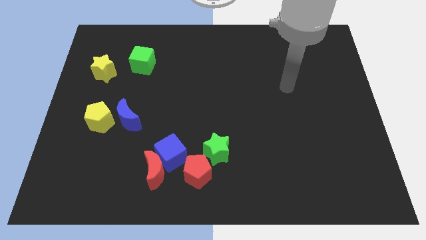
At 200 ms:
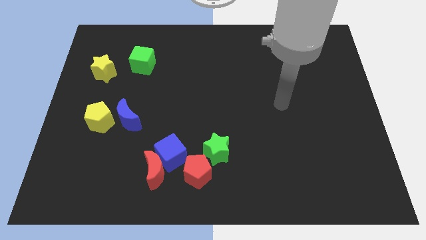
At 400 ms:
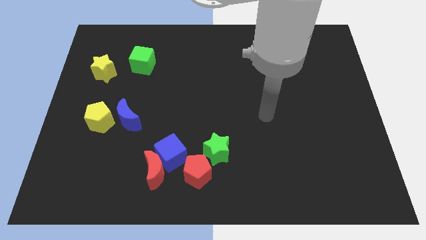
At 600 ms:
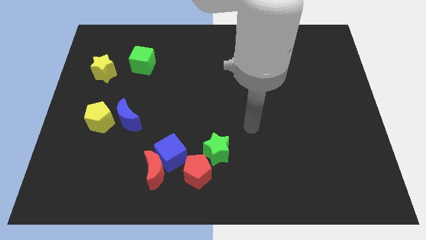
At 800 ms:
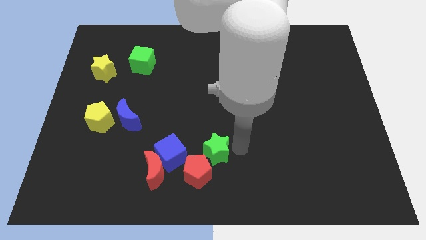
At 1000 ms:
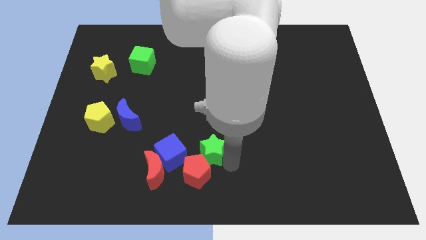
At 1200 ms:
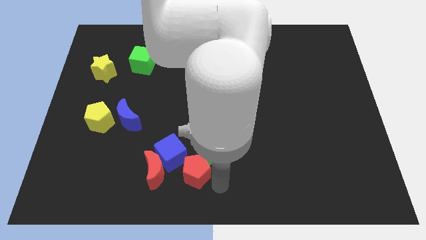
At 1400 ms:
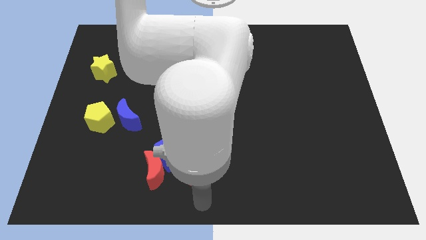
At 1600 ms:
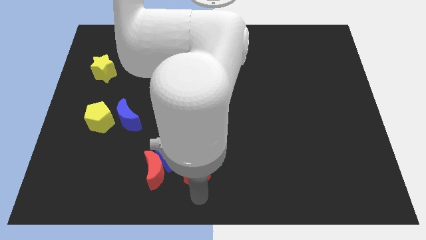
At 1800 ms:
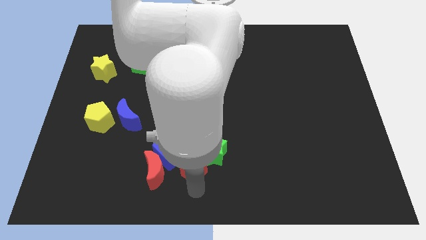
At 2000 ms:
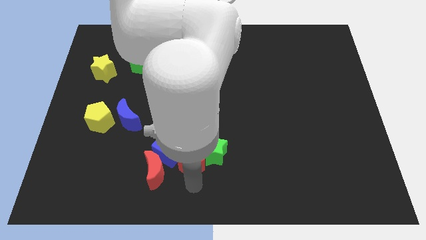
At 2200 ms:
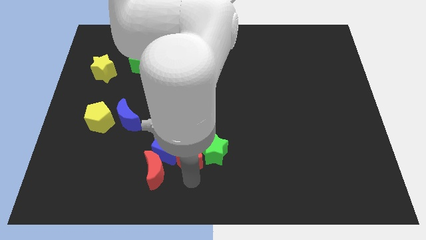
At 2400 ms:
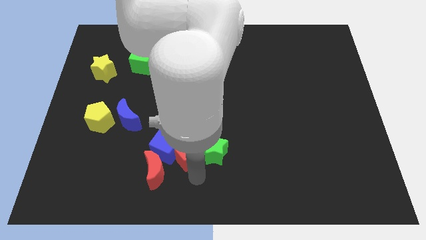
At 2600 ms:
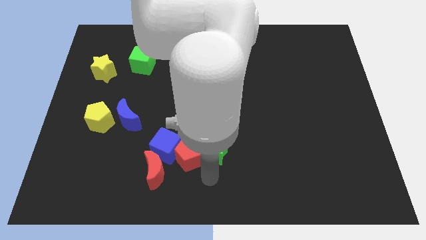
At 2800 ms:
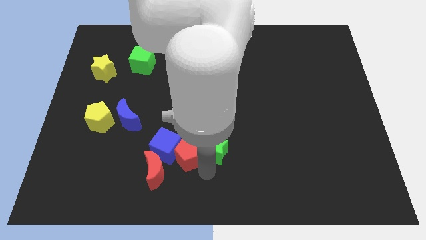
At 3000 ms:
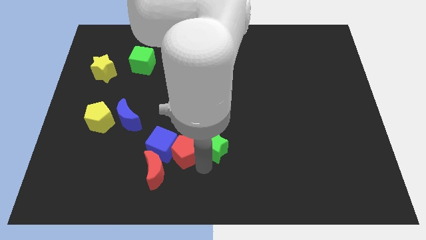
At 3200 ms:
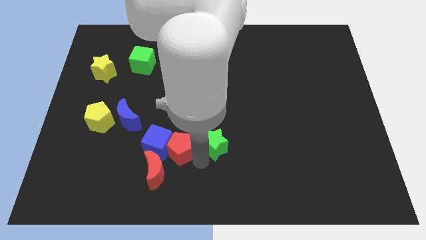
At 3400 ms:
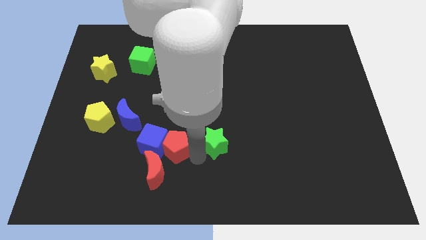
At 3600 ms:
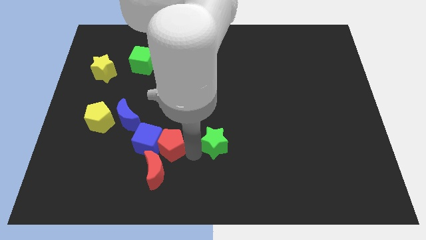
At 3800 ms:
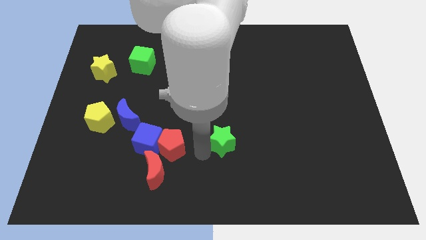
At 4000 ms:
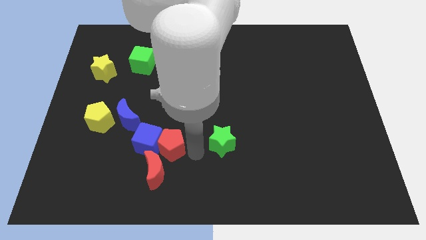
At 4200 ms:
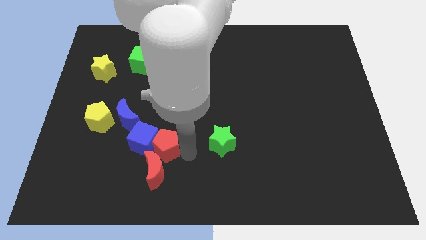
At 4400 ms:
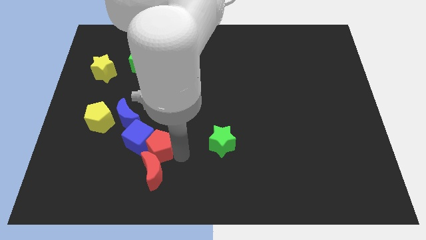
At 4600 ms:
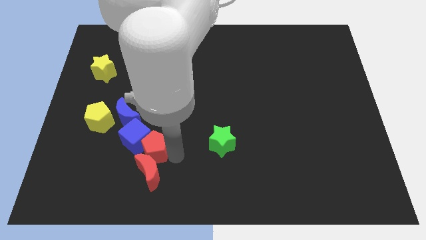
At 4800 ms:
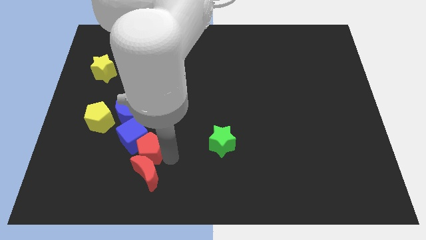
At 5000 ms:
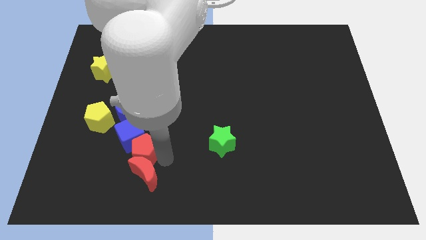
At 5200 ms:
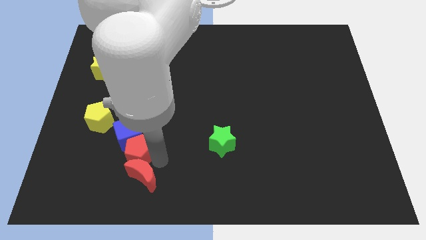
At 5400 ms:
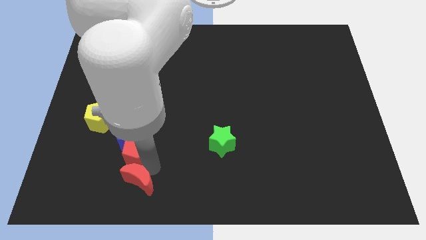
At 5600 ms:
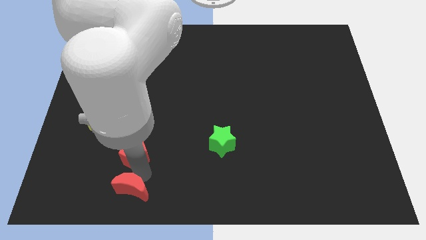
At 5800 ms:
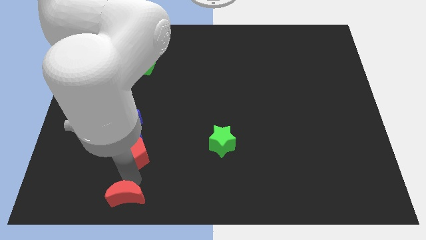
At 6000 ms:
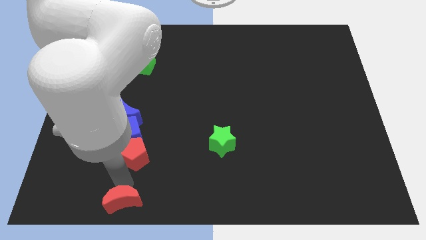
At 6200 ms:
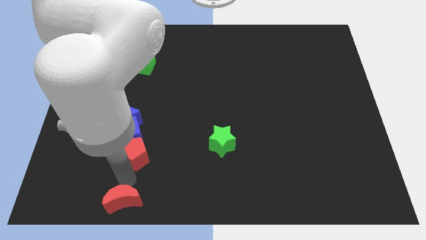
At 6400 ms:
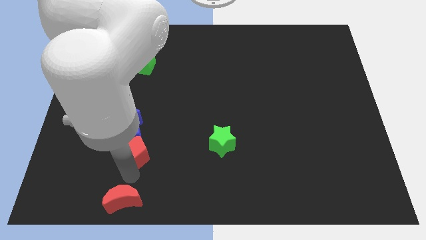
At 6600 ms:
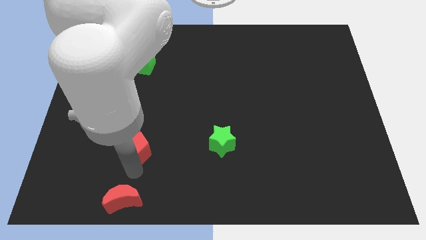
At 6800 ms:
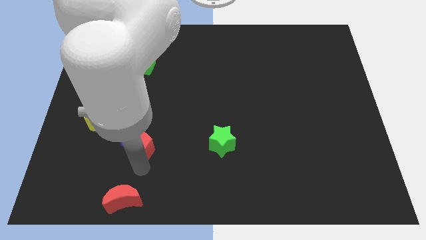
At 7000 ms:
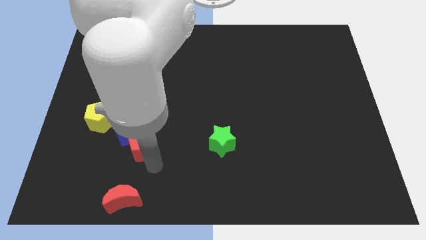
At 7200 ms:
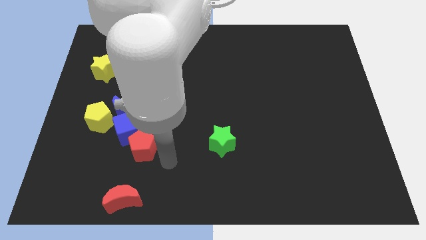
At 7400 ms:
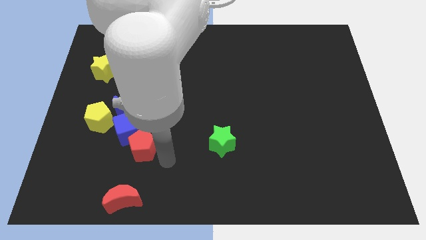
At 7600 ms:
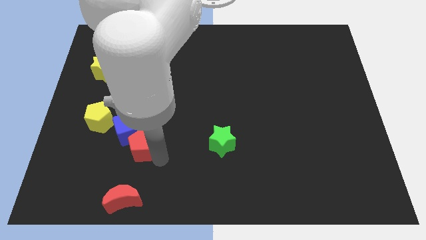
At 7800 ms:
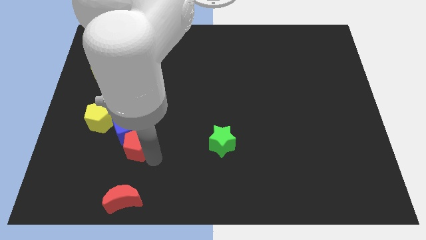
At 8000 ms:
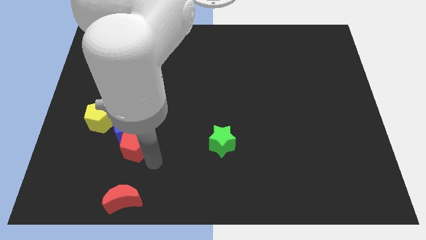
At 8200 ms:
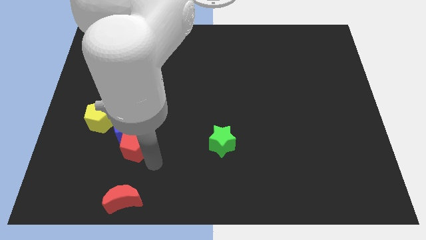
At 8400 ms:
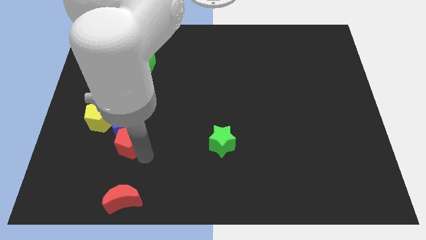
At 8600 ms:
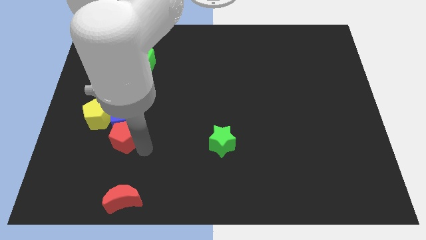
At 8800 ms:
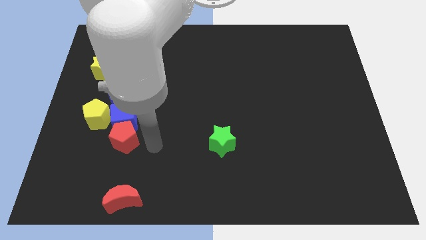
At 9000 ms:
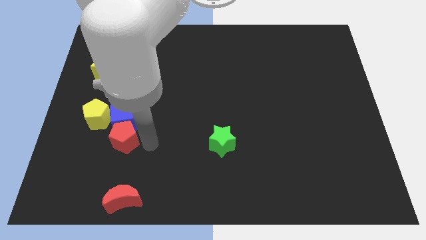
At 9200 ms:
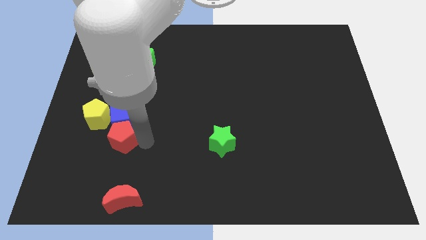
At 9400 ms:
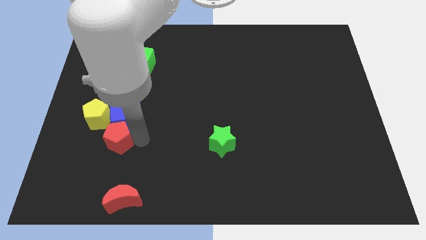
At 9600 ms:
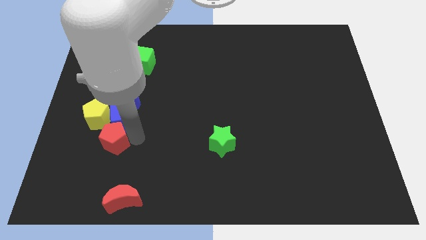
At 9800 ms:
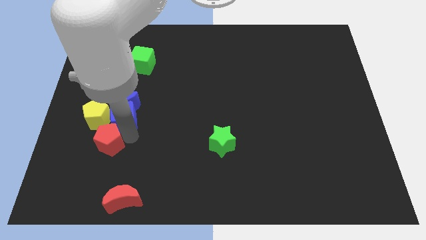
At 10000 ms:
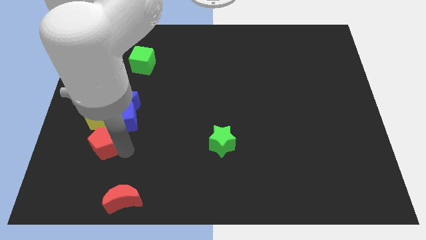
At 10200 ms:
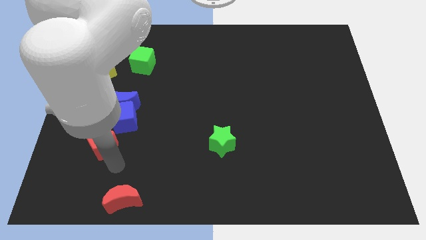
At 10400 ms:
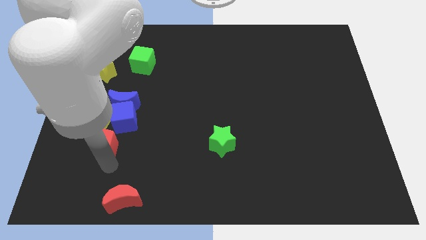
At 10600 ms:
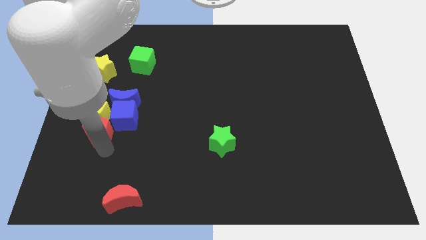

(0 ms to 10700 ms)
move the red pentagon to the yellow pentagon

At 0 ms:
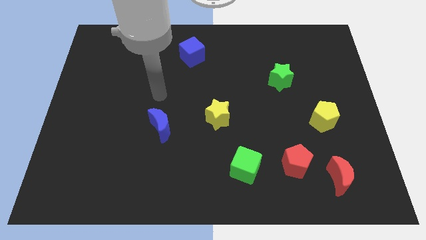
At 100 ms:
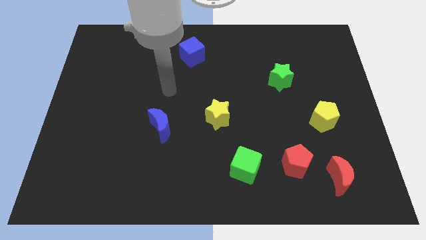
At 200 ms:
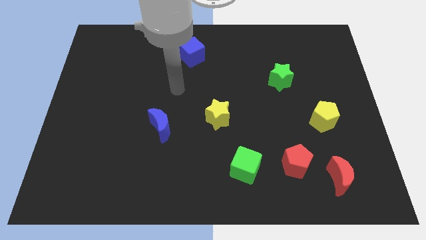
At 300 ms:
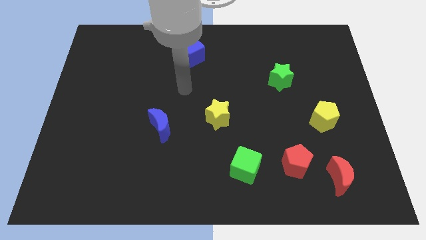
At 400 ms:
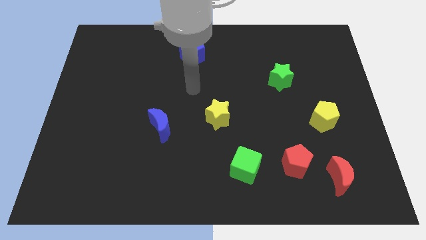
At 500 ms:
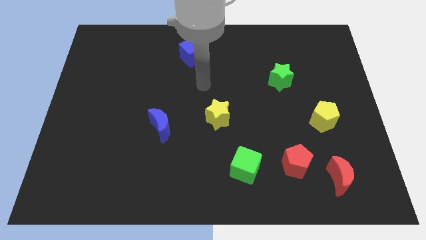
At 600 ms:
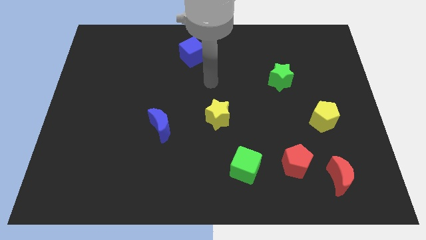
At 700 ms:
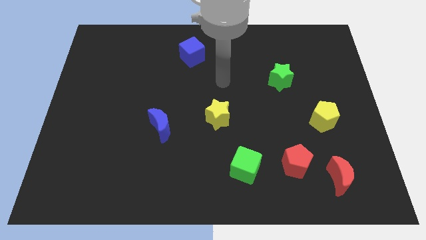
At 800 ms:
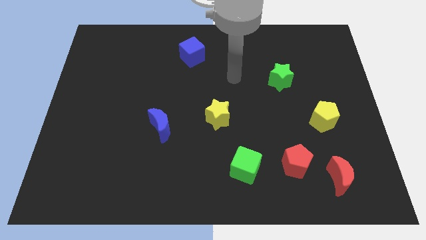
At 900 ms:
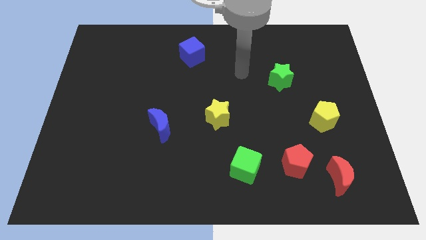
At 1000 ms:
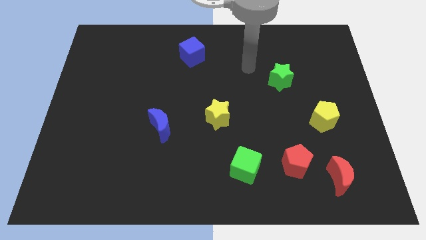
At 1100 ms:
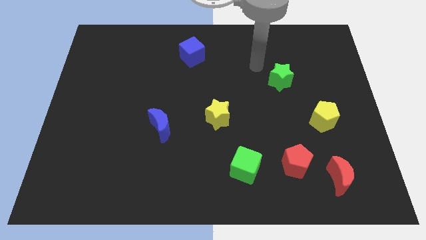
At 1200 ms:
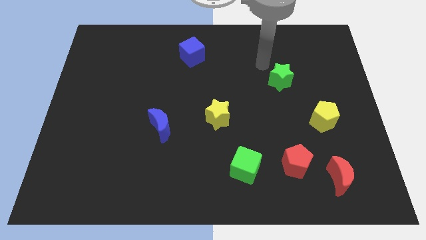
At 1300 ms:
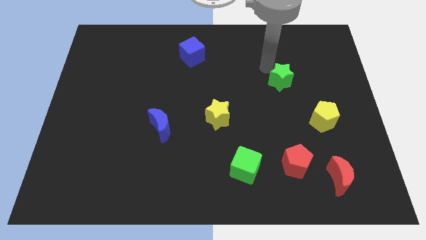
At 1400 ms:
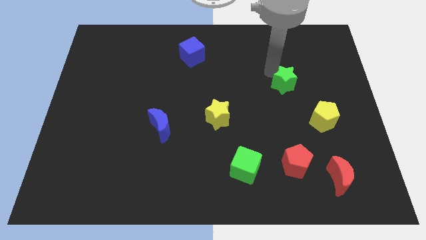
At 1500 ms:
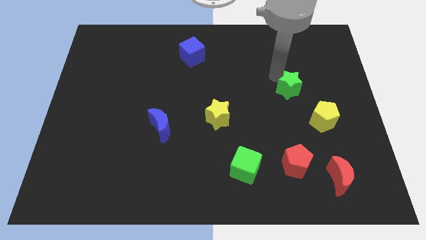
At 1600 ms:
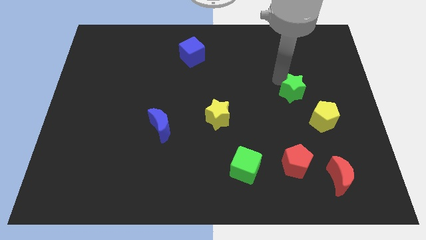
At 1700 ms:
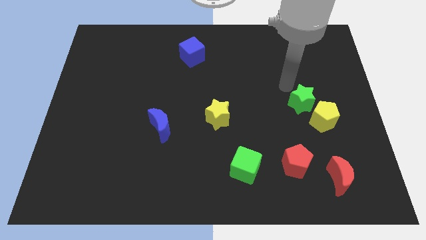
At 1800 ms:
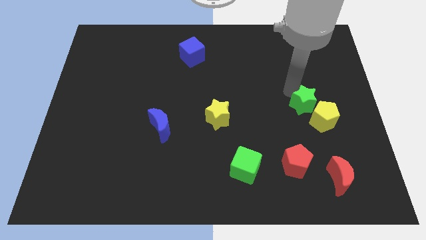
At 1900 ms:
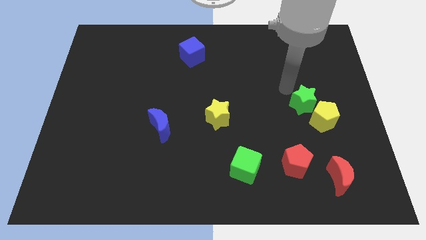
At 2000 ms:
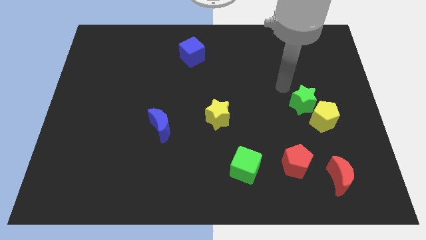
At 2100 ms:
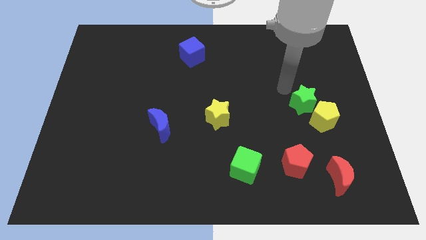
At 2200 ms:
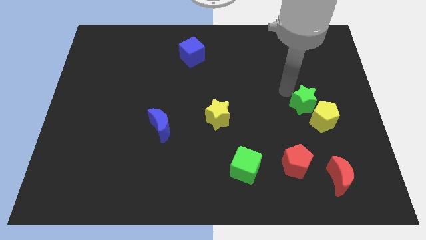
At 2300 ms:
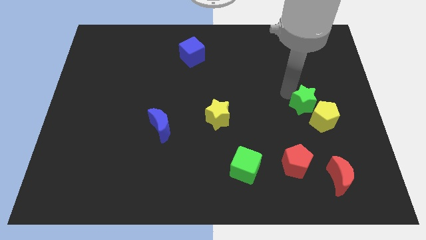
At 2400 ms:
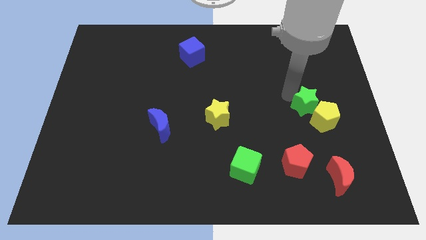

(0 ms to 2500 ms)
push the green star to the yellow pentagon

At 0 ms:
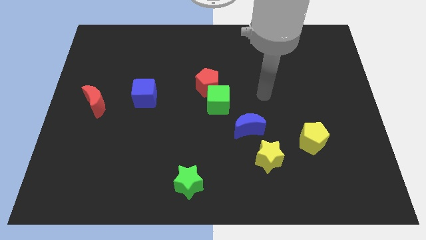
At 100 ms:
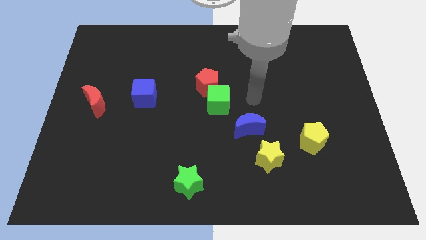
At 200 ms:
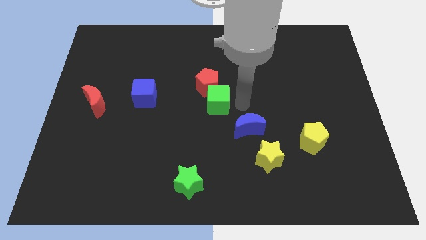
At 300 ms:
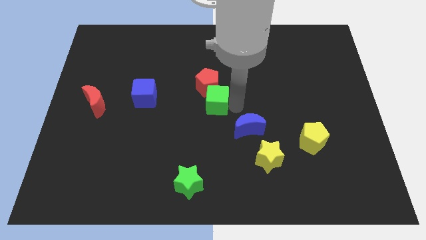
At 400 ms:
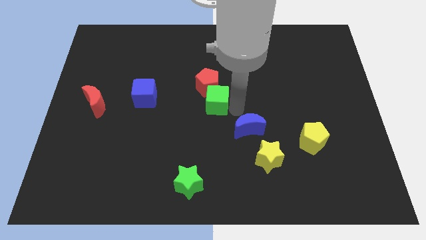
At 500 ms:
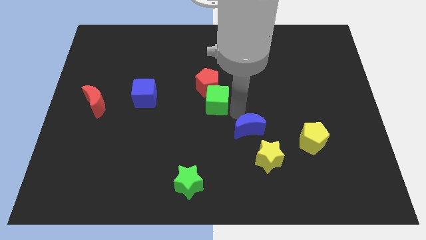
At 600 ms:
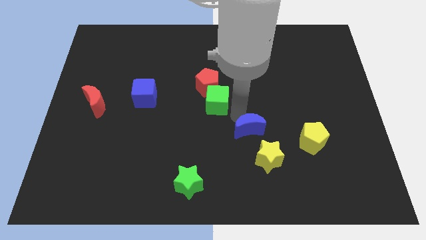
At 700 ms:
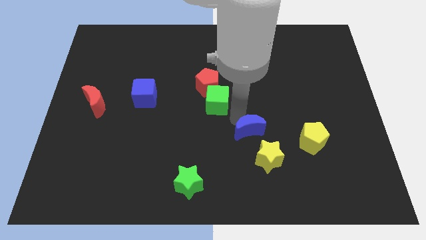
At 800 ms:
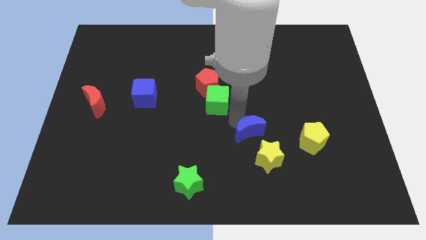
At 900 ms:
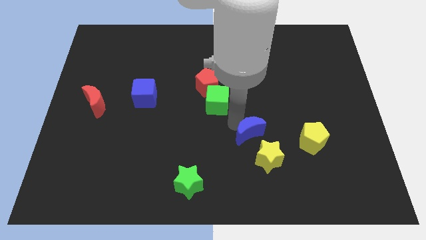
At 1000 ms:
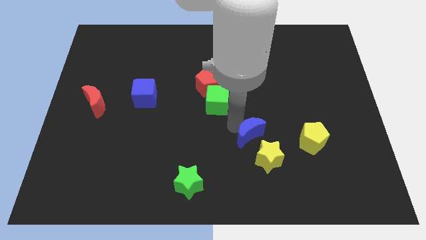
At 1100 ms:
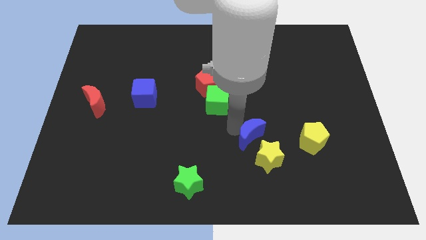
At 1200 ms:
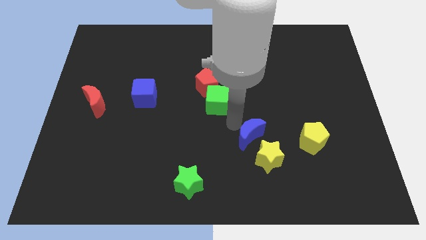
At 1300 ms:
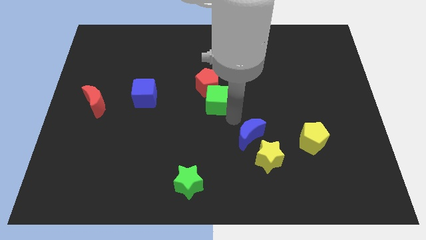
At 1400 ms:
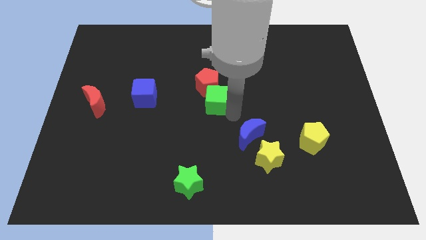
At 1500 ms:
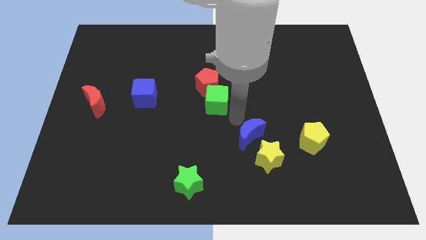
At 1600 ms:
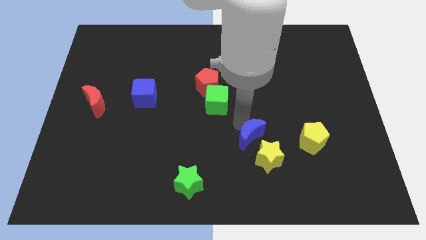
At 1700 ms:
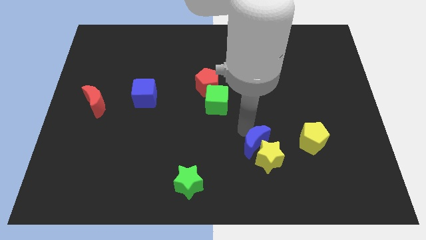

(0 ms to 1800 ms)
push the blue moon towards the yellow star
